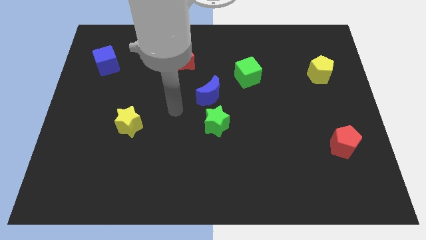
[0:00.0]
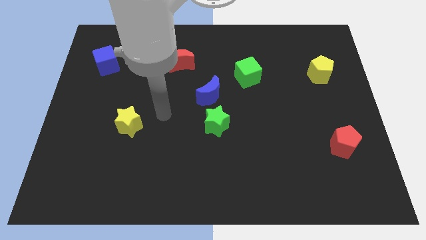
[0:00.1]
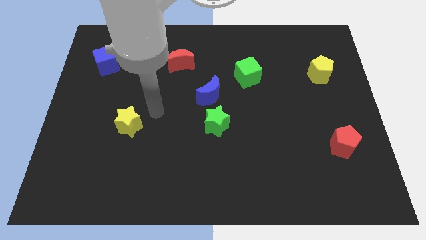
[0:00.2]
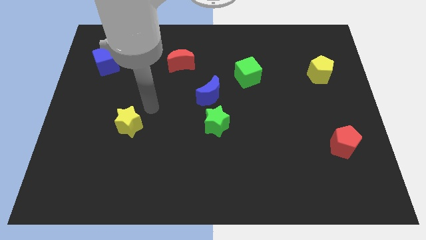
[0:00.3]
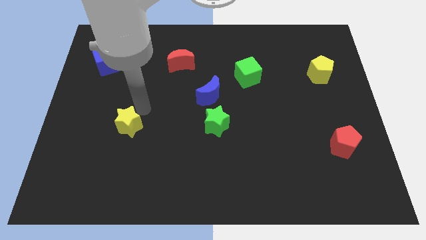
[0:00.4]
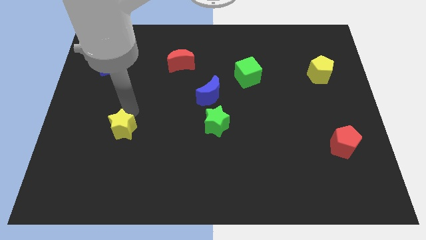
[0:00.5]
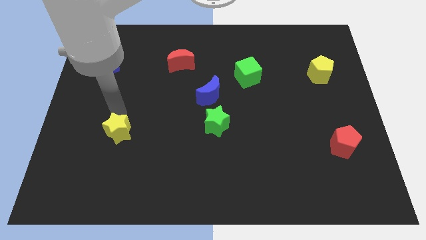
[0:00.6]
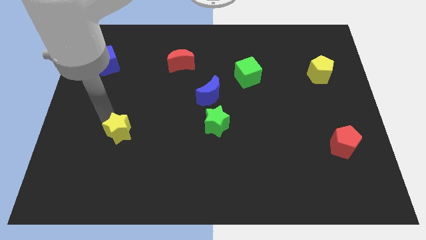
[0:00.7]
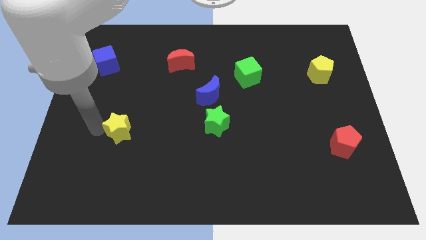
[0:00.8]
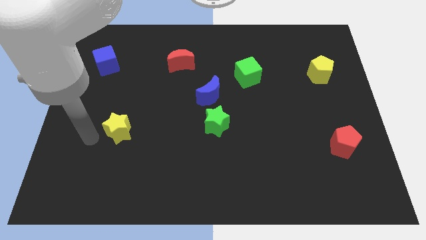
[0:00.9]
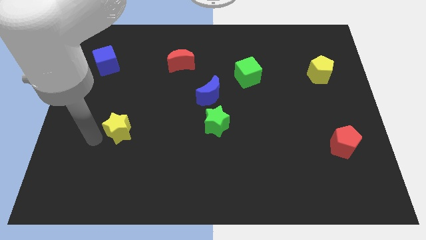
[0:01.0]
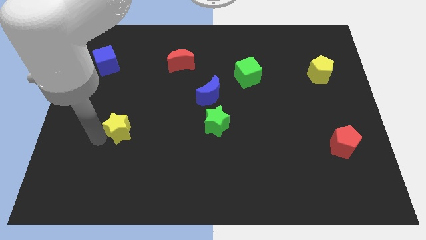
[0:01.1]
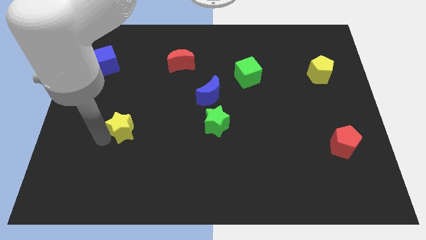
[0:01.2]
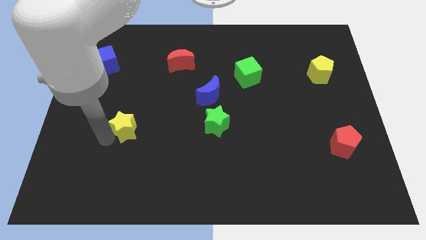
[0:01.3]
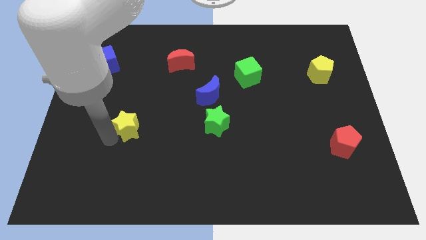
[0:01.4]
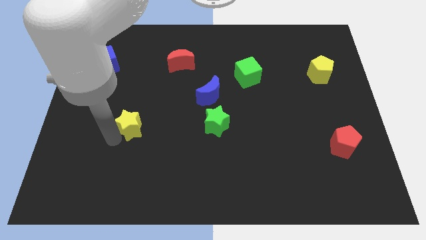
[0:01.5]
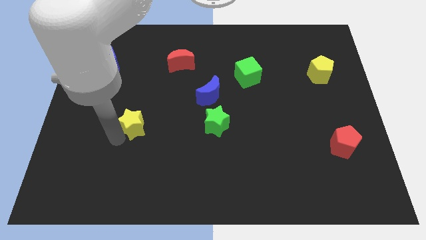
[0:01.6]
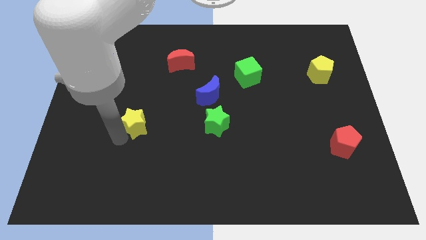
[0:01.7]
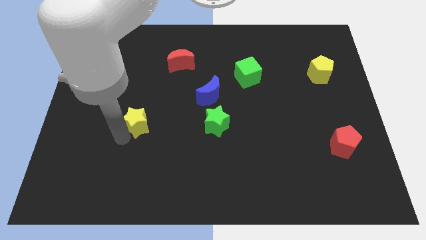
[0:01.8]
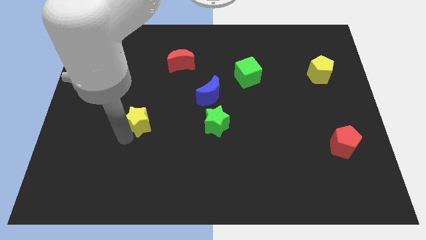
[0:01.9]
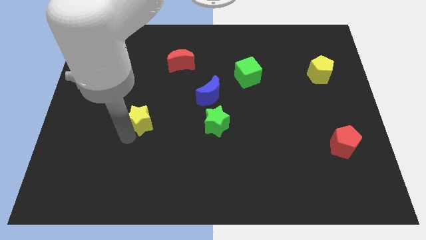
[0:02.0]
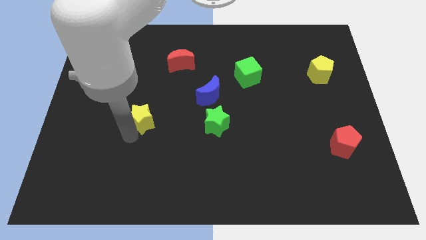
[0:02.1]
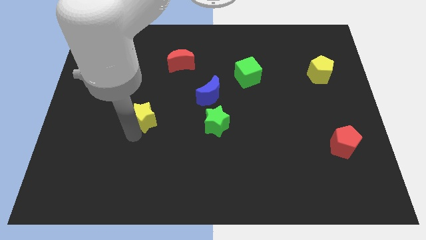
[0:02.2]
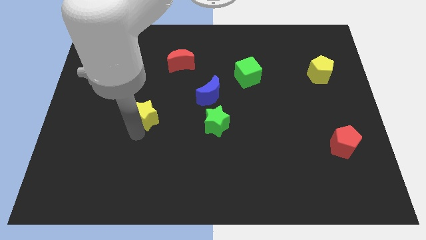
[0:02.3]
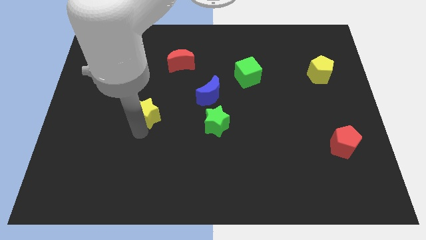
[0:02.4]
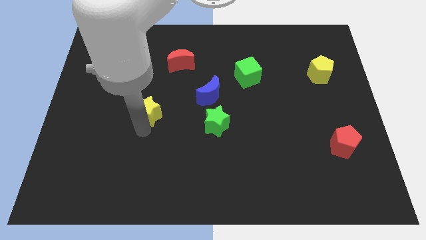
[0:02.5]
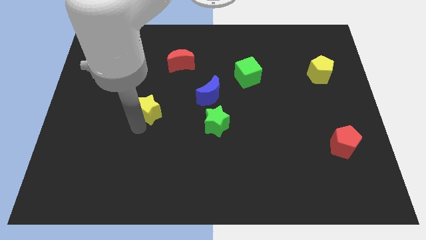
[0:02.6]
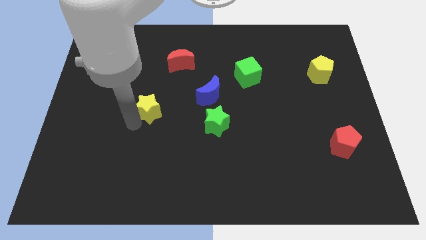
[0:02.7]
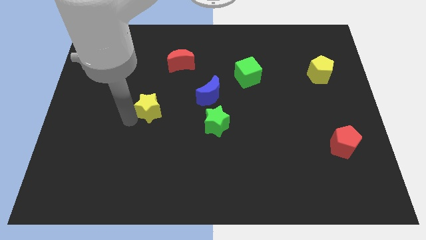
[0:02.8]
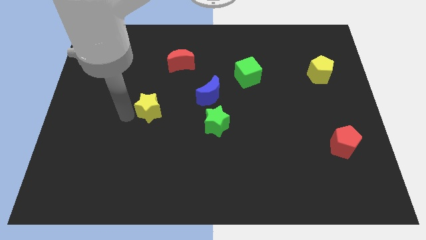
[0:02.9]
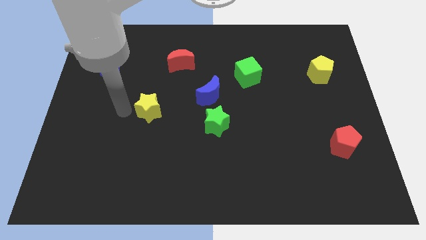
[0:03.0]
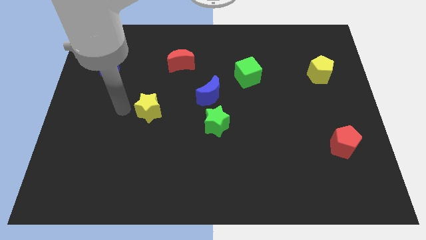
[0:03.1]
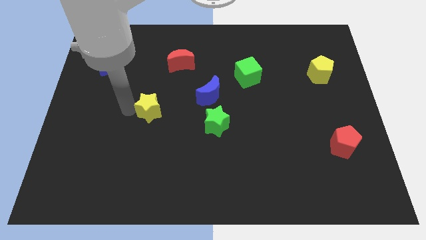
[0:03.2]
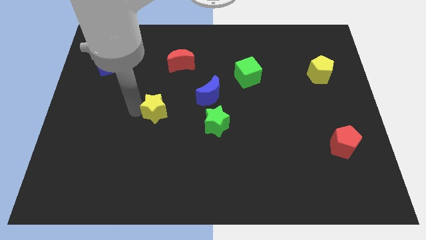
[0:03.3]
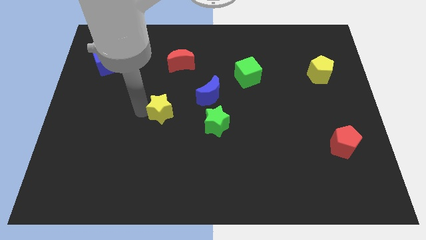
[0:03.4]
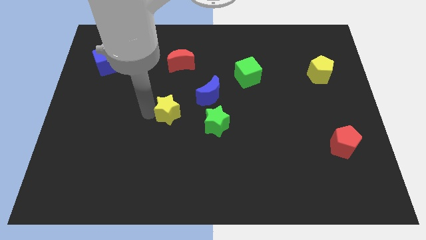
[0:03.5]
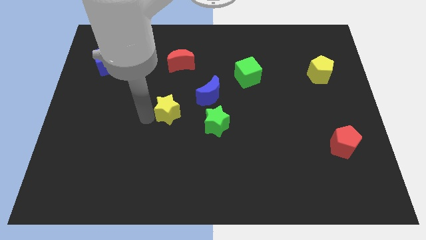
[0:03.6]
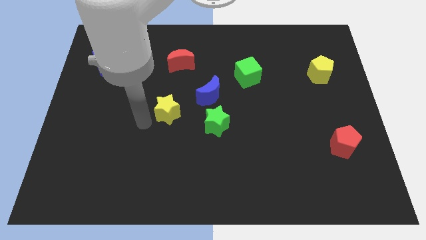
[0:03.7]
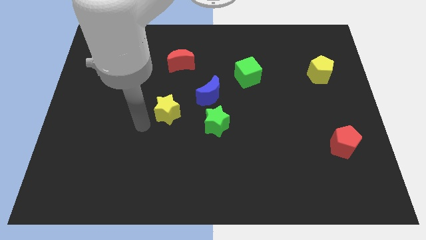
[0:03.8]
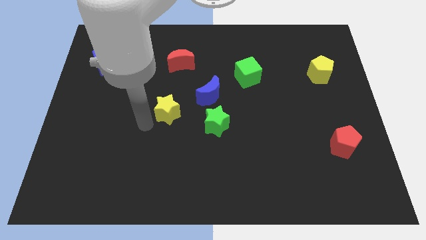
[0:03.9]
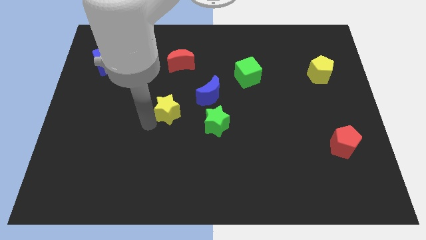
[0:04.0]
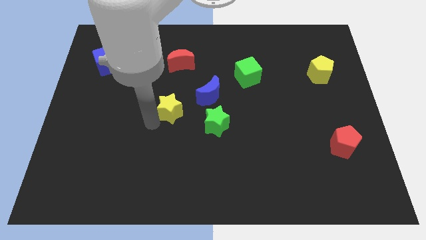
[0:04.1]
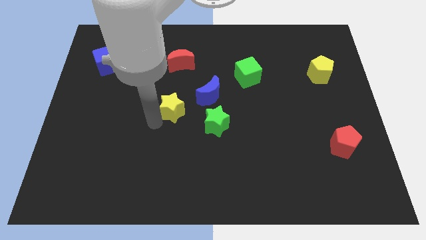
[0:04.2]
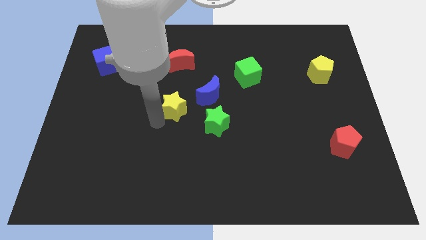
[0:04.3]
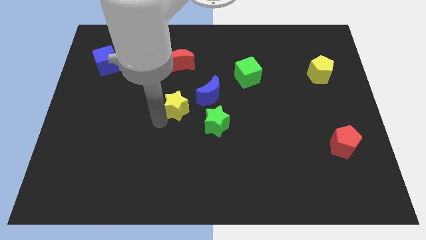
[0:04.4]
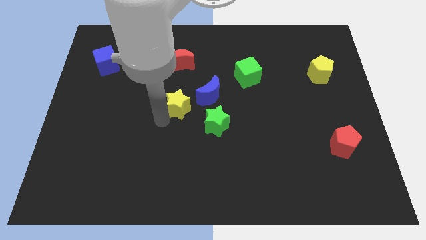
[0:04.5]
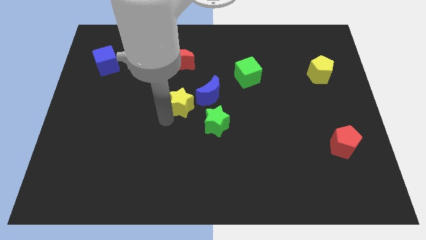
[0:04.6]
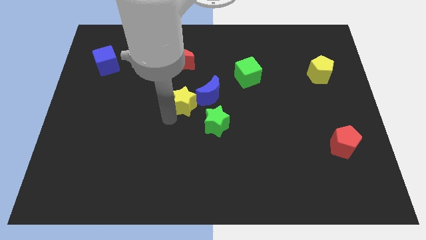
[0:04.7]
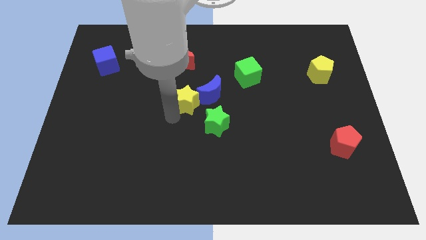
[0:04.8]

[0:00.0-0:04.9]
move the yellow star to the blue moon

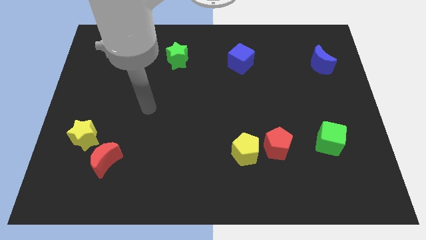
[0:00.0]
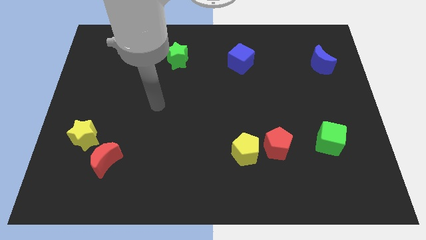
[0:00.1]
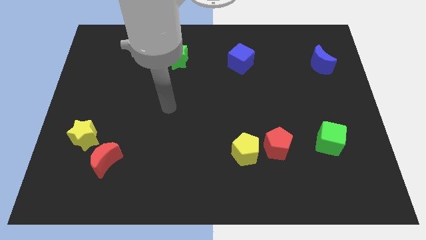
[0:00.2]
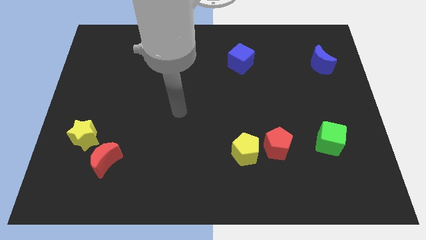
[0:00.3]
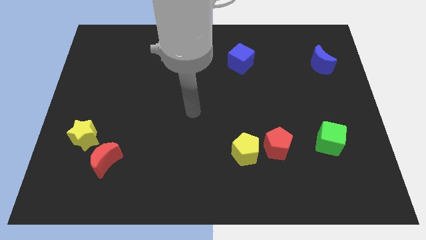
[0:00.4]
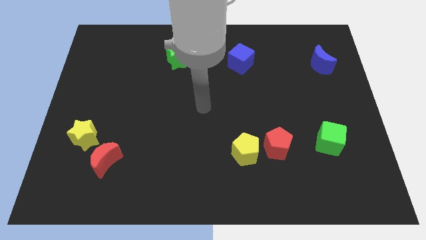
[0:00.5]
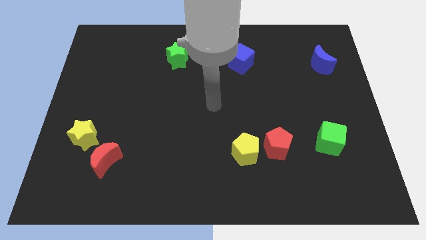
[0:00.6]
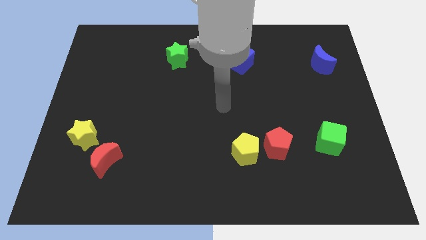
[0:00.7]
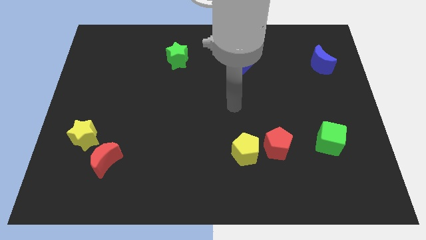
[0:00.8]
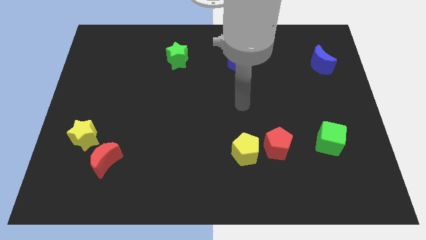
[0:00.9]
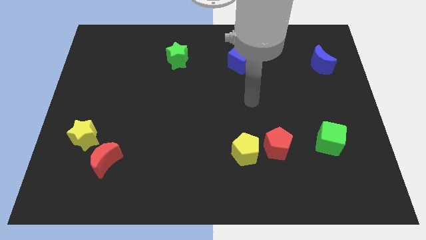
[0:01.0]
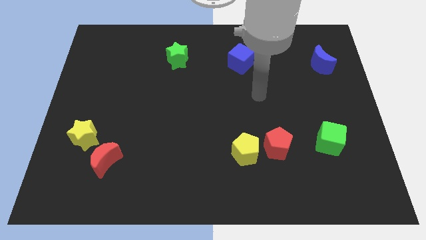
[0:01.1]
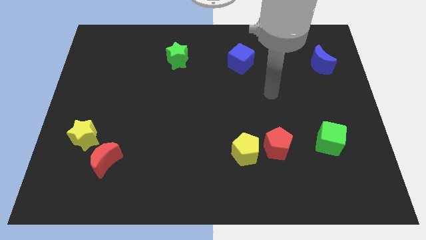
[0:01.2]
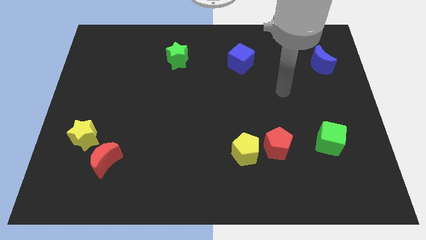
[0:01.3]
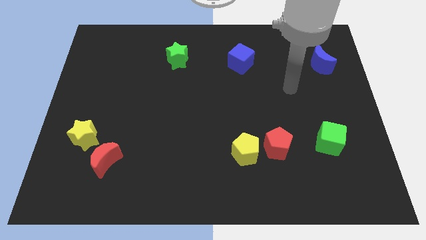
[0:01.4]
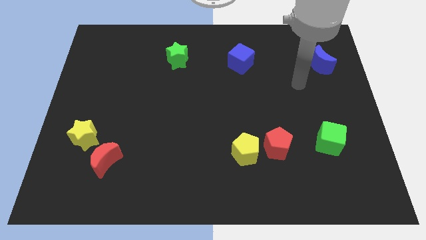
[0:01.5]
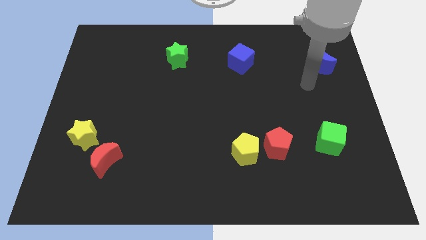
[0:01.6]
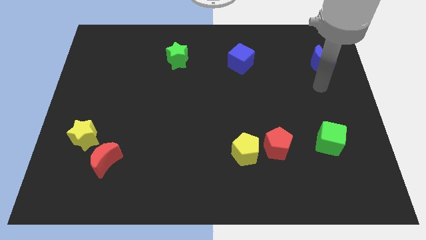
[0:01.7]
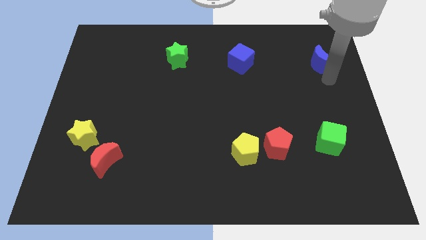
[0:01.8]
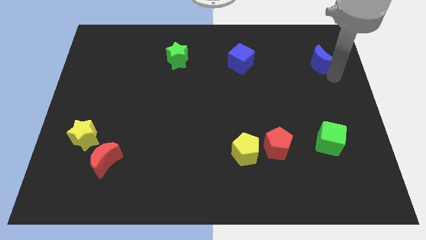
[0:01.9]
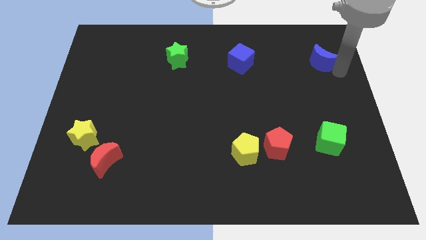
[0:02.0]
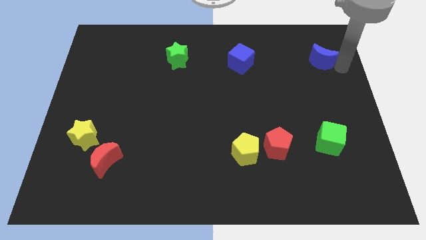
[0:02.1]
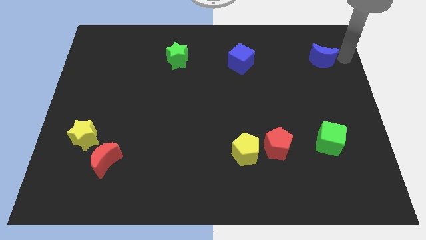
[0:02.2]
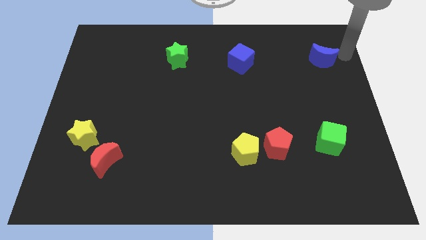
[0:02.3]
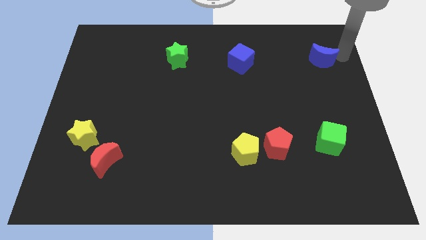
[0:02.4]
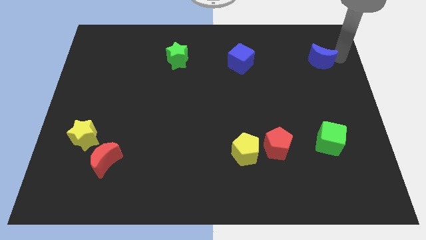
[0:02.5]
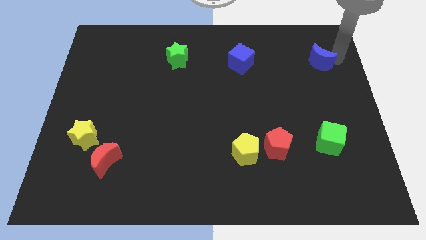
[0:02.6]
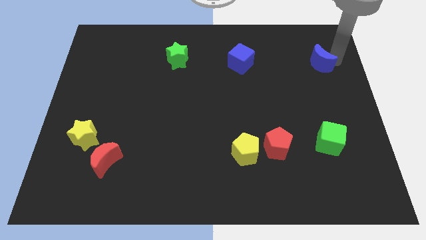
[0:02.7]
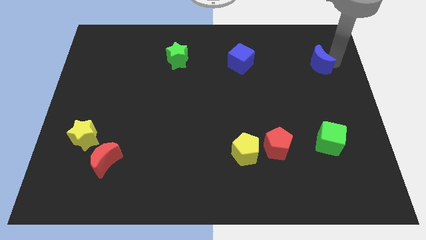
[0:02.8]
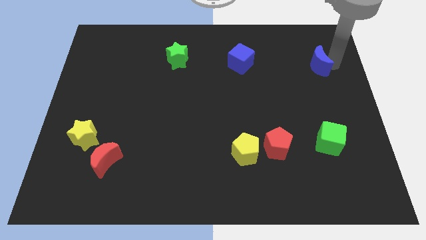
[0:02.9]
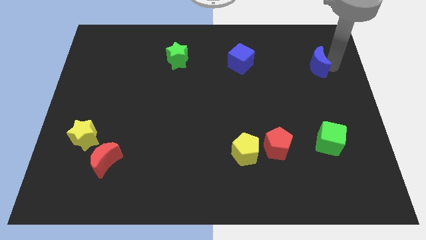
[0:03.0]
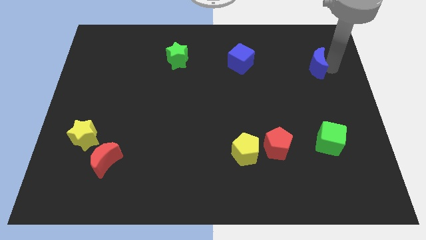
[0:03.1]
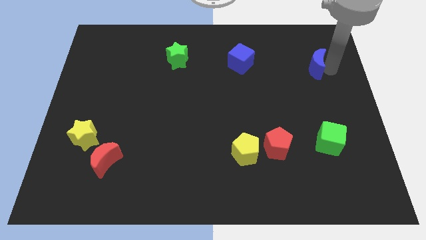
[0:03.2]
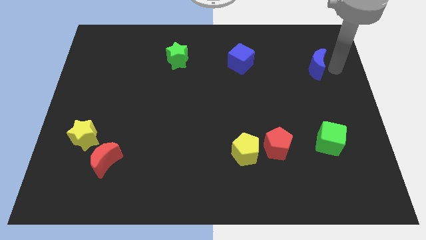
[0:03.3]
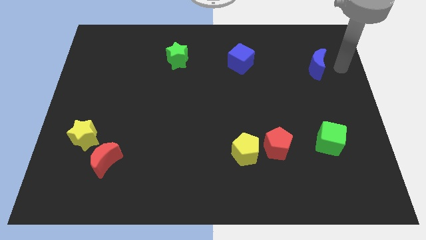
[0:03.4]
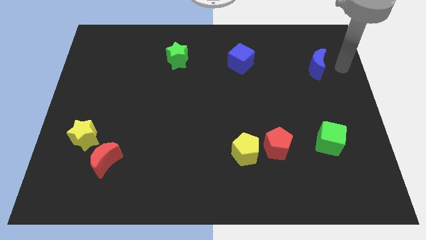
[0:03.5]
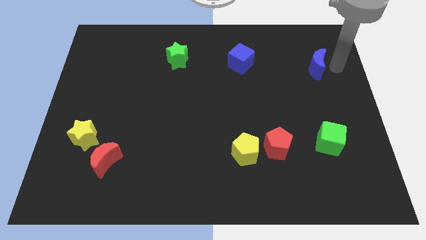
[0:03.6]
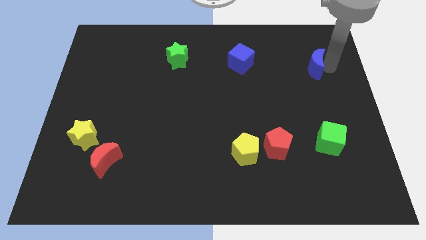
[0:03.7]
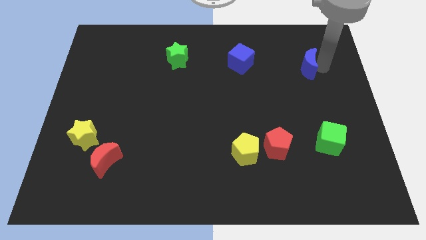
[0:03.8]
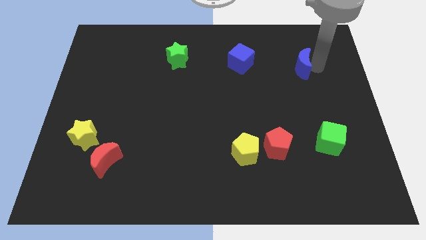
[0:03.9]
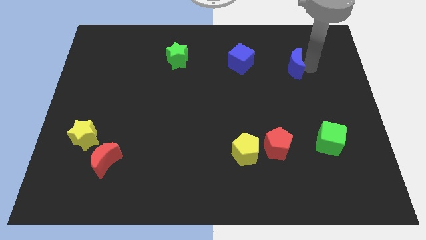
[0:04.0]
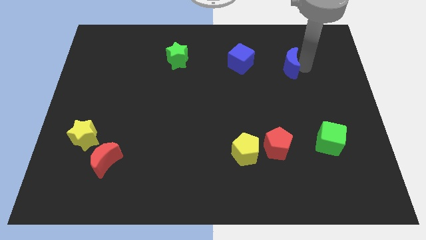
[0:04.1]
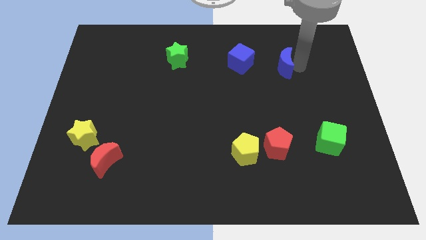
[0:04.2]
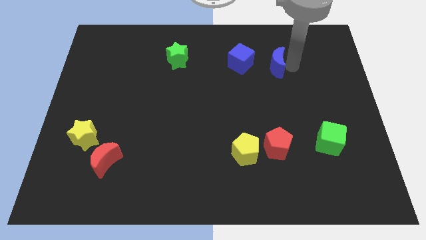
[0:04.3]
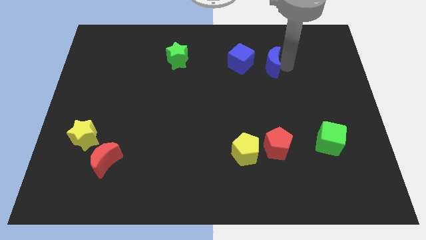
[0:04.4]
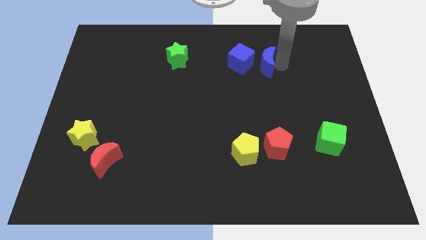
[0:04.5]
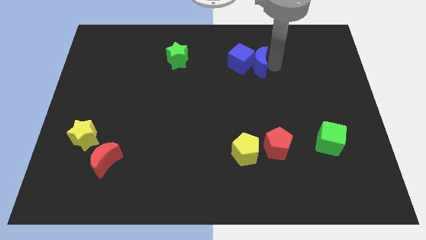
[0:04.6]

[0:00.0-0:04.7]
put the blue moon to the blue cube
